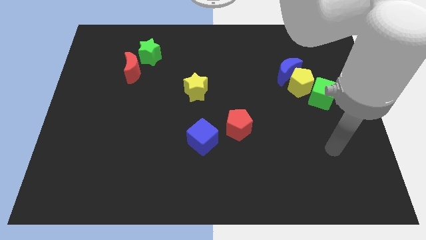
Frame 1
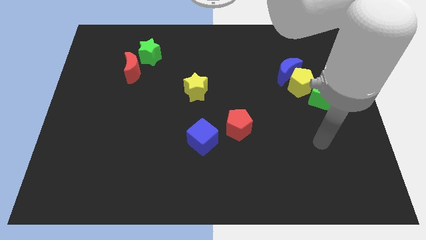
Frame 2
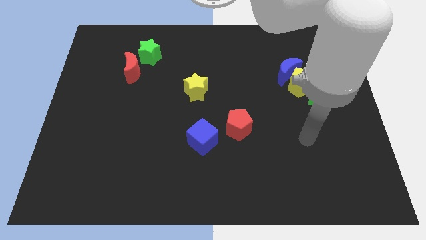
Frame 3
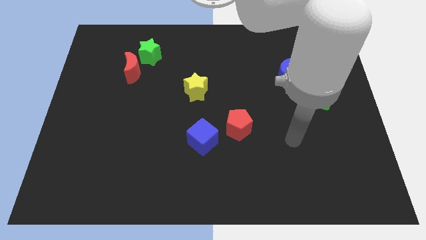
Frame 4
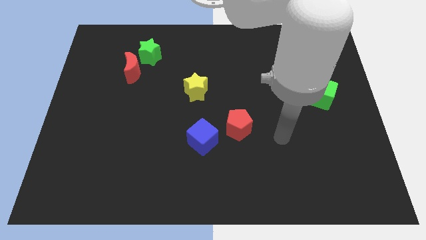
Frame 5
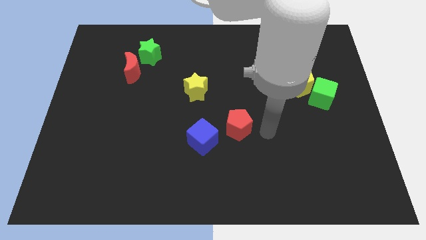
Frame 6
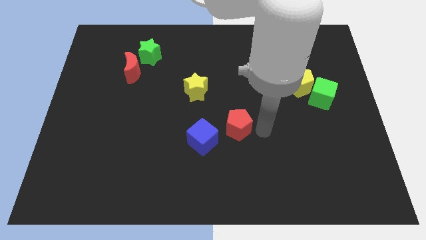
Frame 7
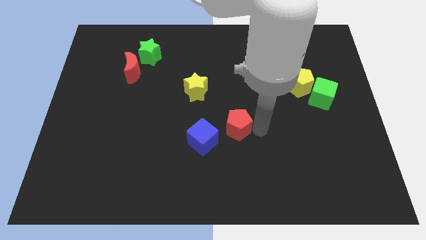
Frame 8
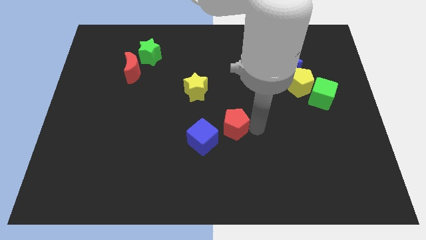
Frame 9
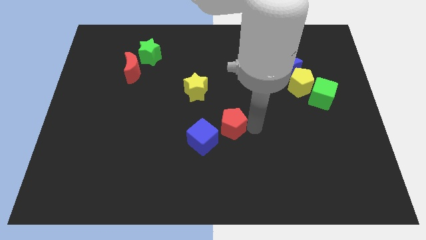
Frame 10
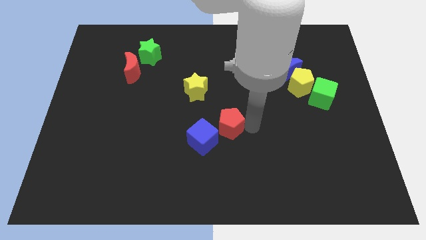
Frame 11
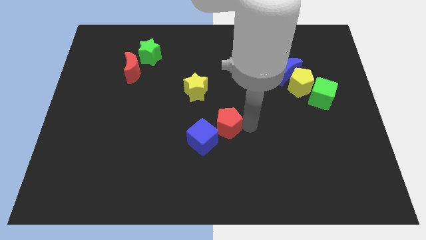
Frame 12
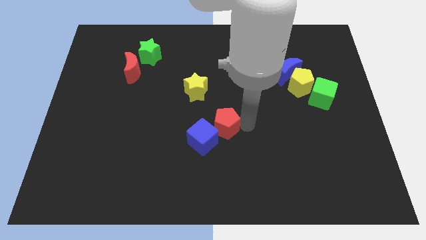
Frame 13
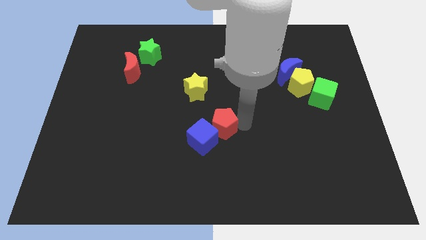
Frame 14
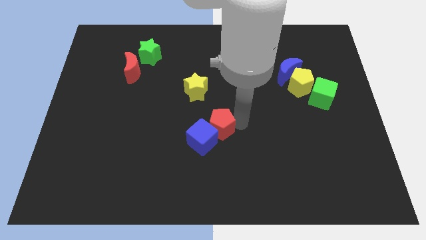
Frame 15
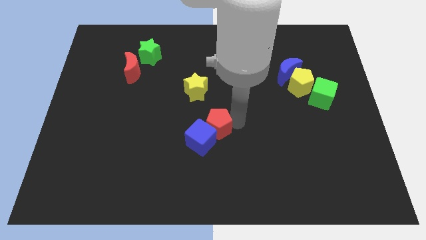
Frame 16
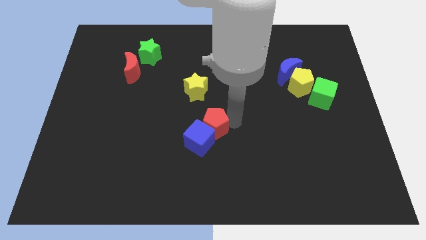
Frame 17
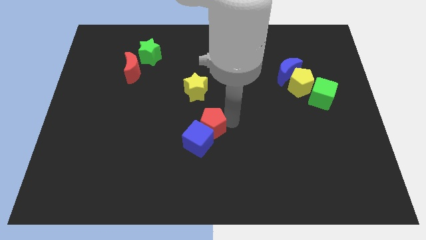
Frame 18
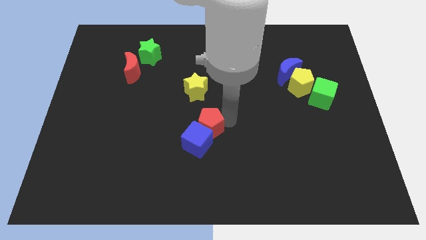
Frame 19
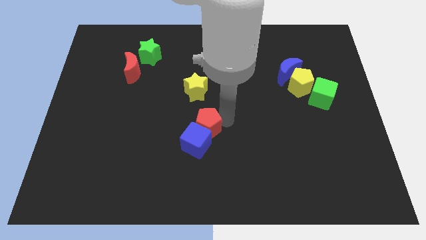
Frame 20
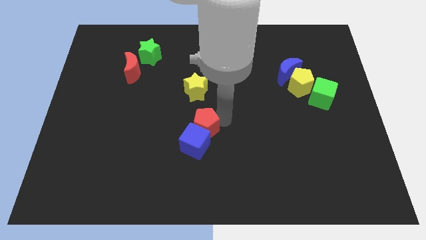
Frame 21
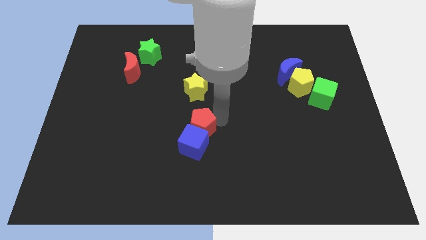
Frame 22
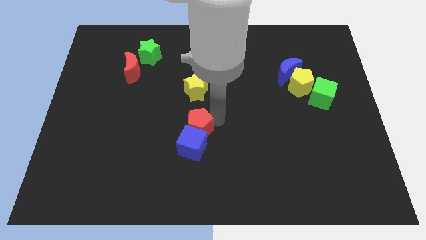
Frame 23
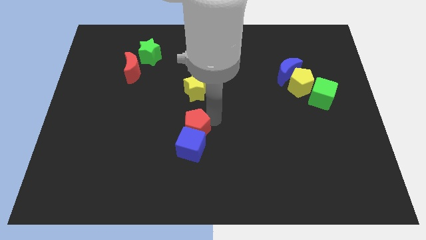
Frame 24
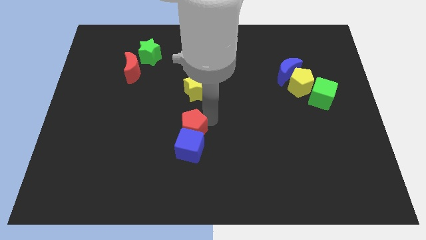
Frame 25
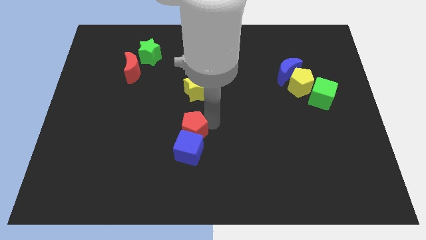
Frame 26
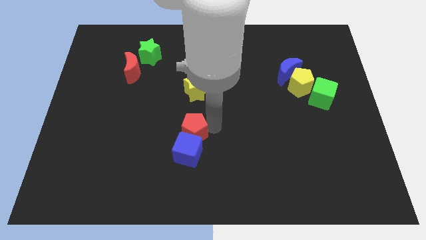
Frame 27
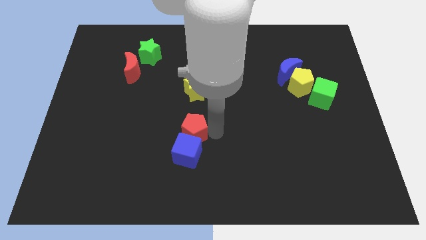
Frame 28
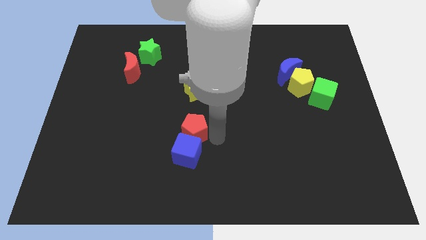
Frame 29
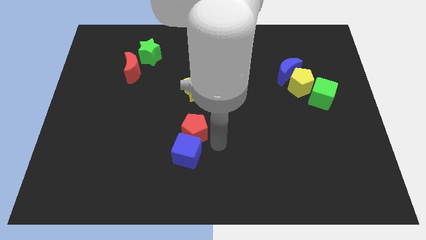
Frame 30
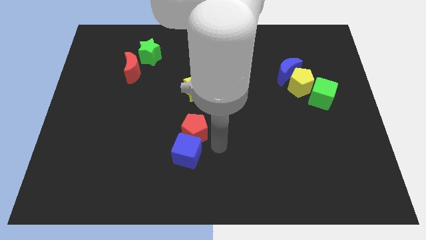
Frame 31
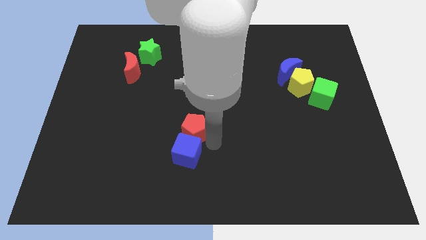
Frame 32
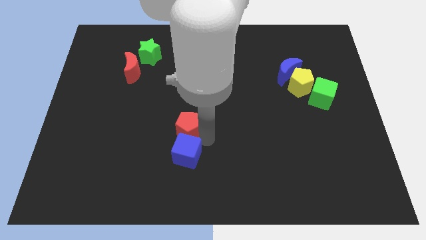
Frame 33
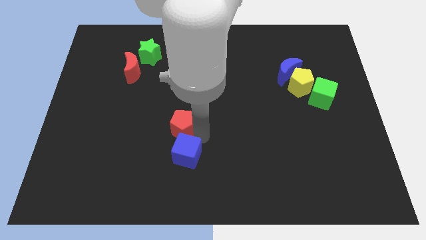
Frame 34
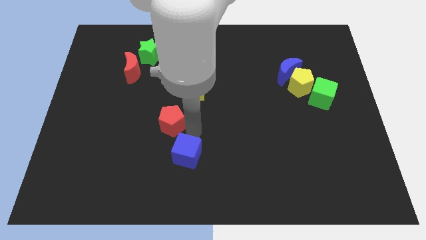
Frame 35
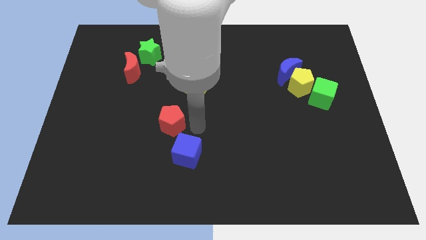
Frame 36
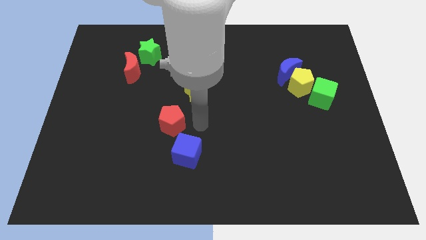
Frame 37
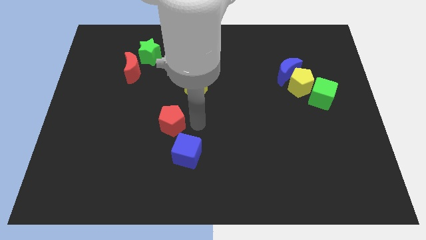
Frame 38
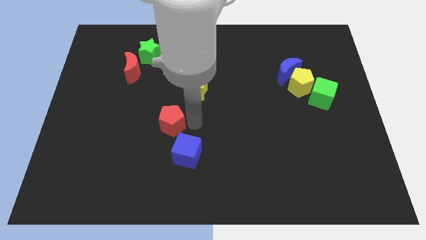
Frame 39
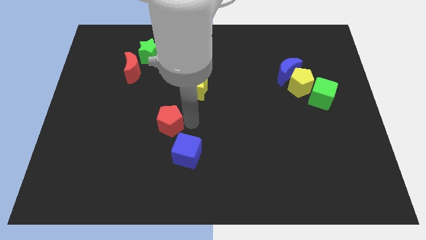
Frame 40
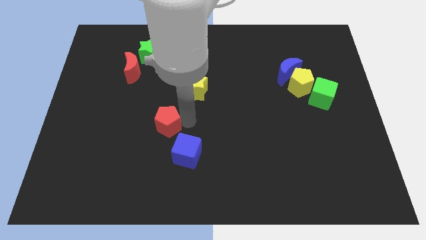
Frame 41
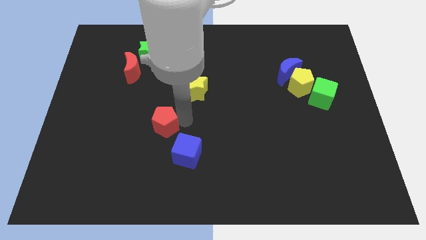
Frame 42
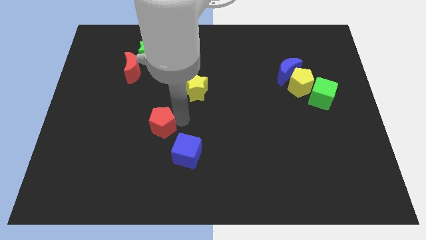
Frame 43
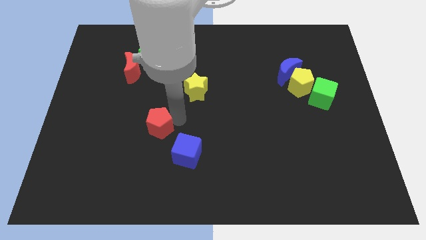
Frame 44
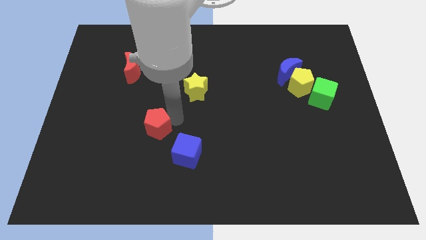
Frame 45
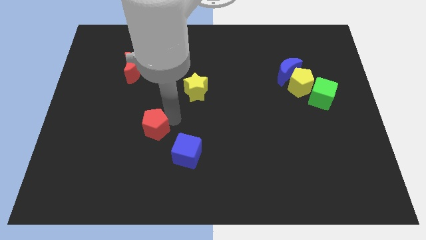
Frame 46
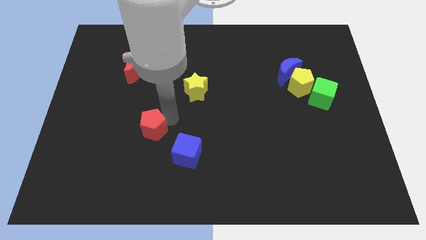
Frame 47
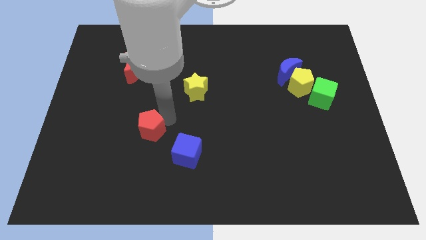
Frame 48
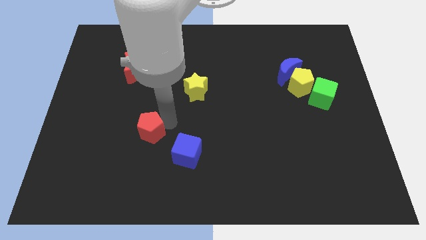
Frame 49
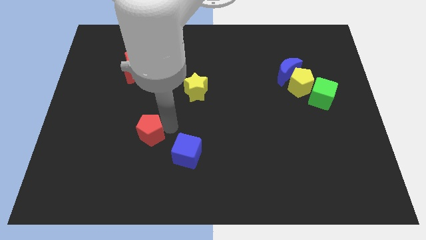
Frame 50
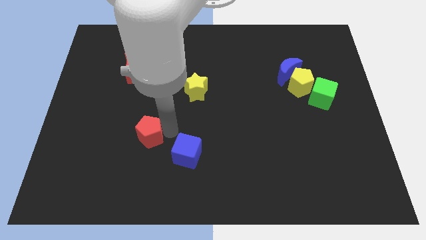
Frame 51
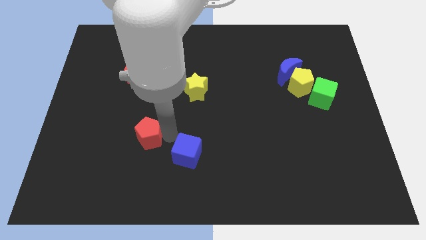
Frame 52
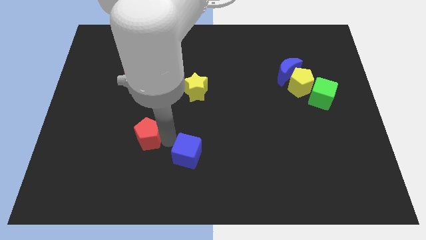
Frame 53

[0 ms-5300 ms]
move the red pentagon to the left

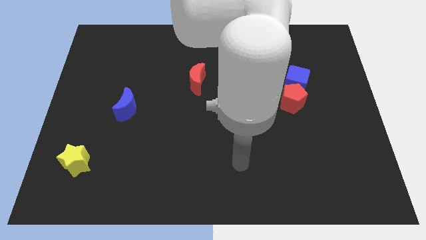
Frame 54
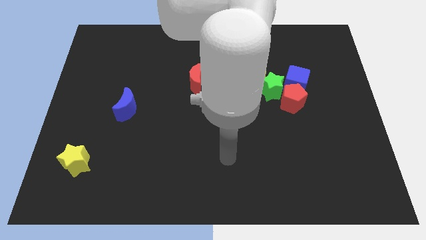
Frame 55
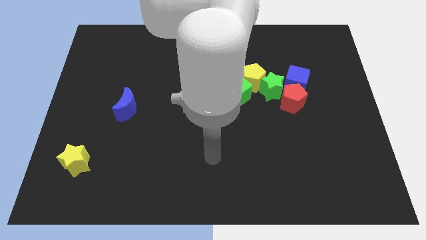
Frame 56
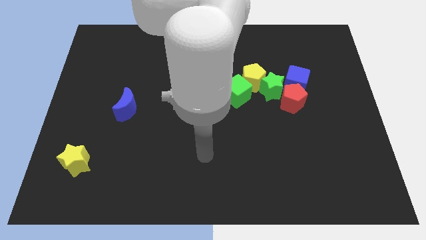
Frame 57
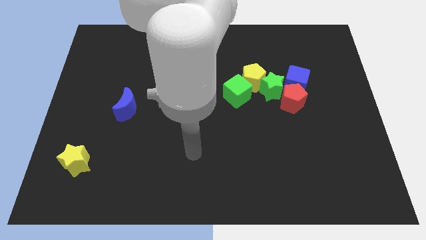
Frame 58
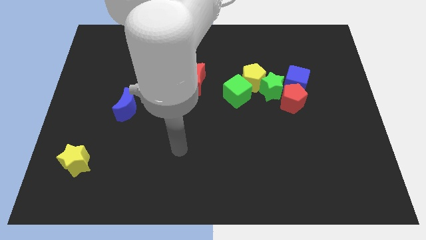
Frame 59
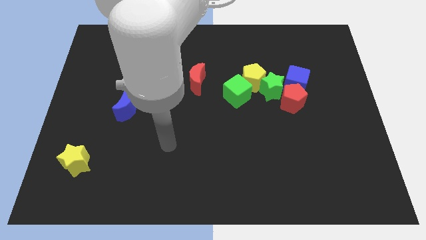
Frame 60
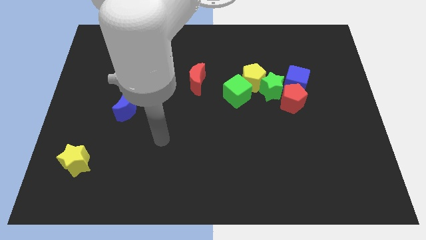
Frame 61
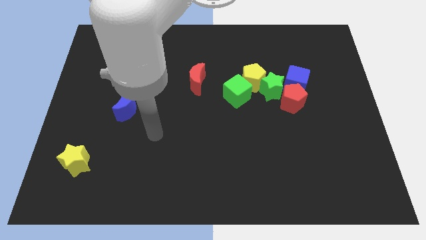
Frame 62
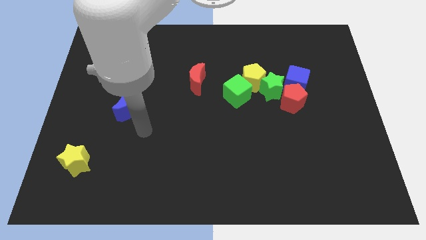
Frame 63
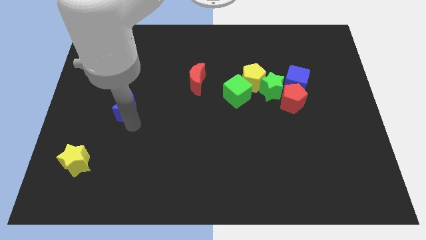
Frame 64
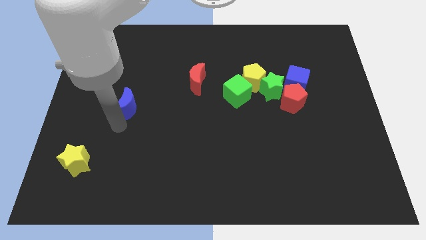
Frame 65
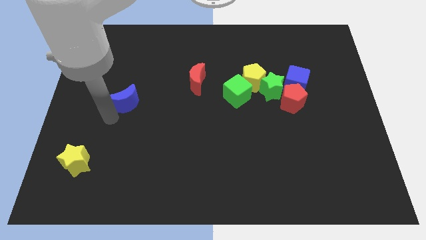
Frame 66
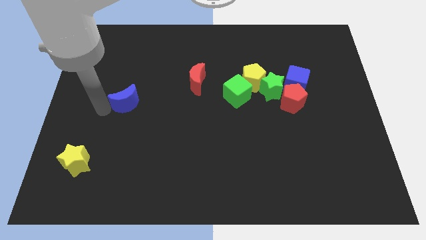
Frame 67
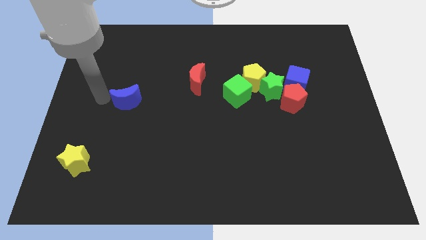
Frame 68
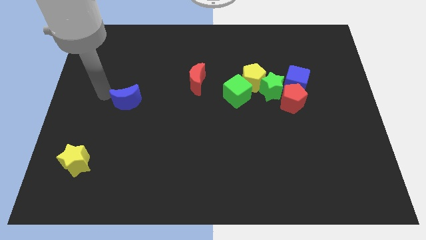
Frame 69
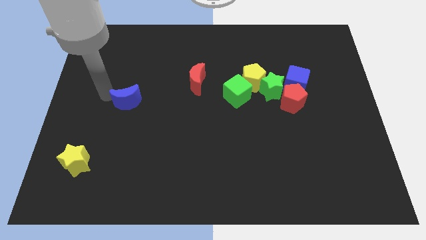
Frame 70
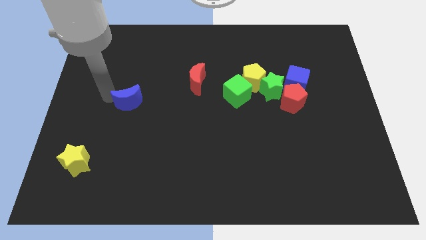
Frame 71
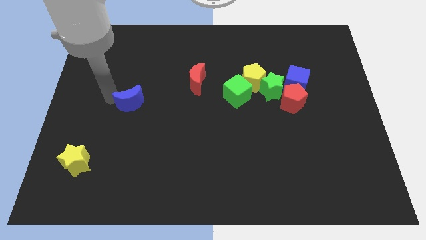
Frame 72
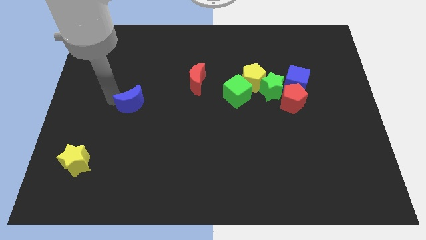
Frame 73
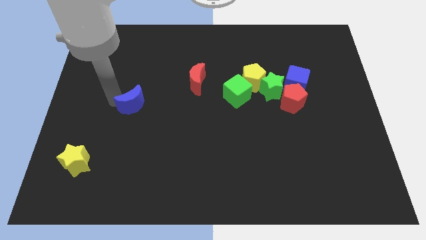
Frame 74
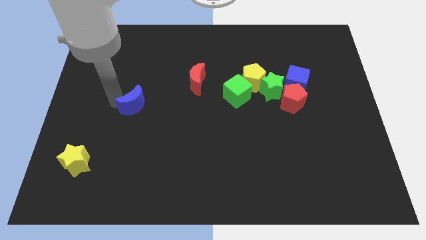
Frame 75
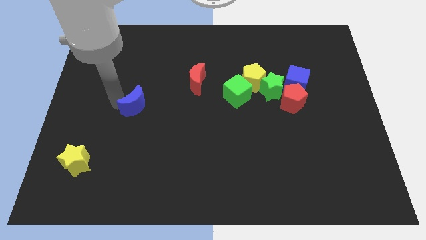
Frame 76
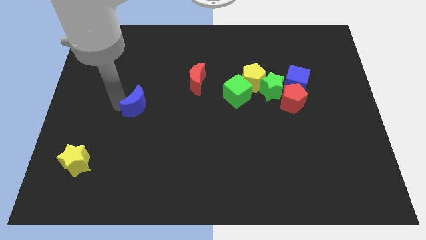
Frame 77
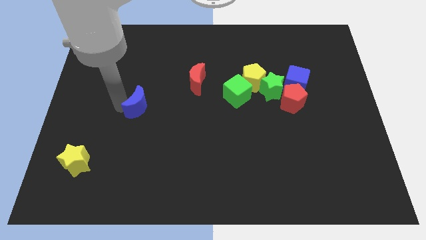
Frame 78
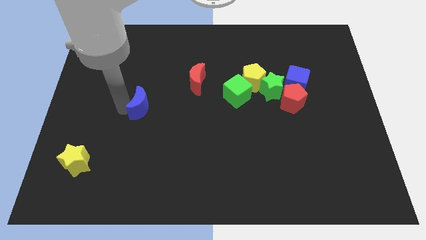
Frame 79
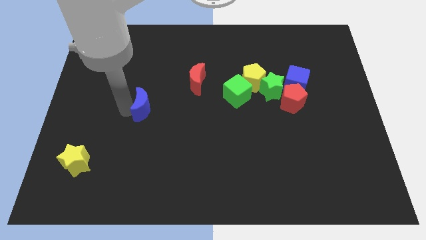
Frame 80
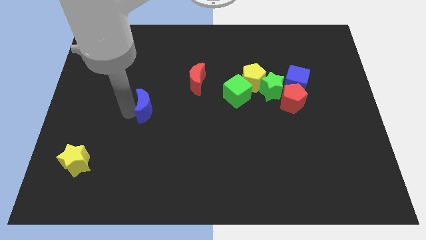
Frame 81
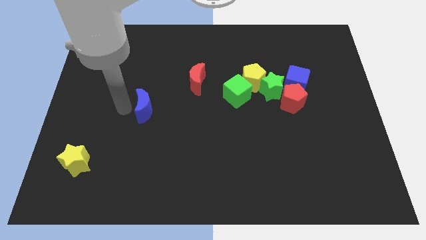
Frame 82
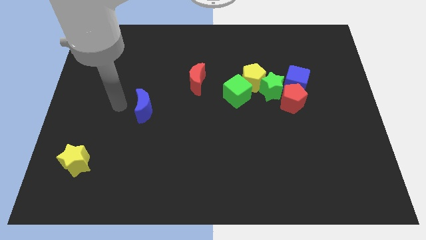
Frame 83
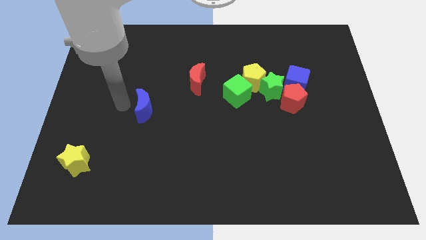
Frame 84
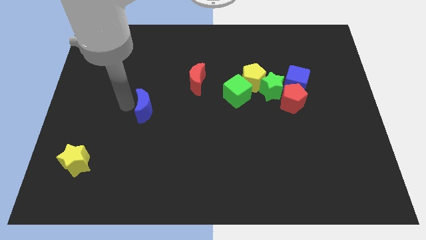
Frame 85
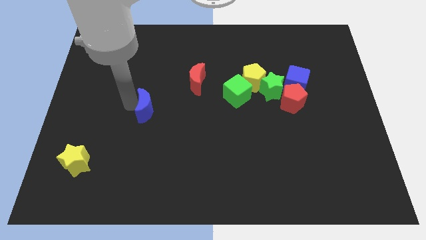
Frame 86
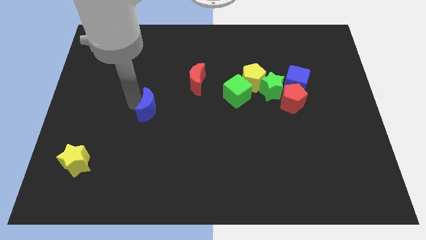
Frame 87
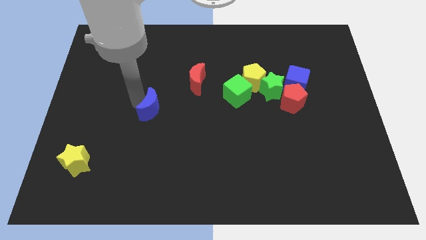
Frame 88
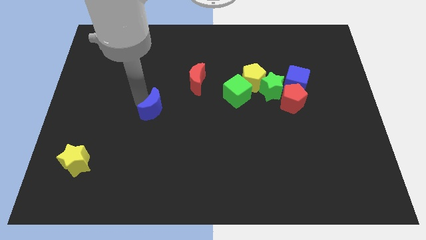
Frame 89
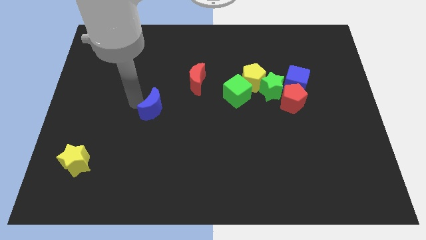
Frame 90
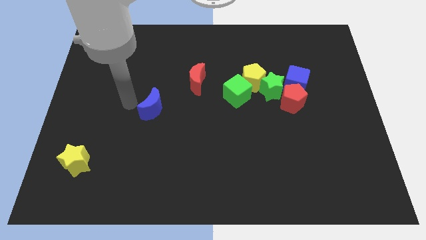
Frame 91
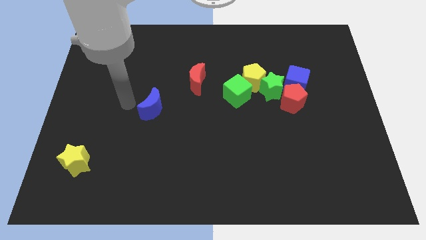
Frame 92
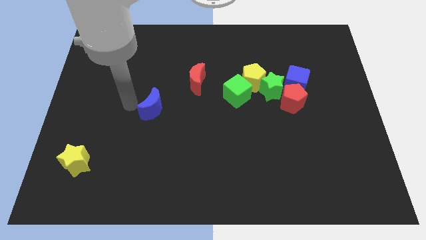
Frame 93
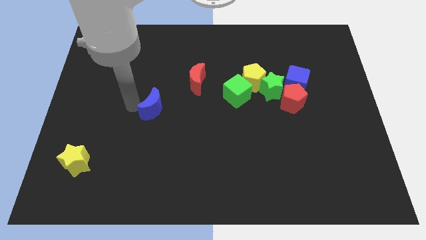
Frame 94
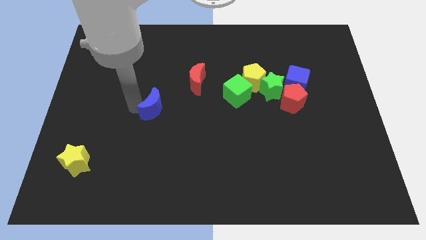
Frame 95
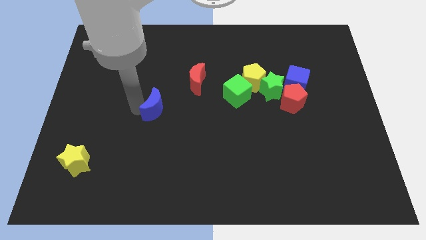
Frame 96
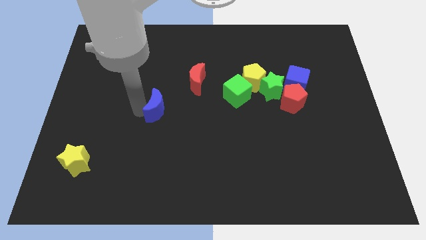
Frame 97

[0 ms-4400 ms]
slide the blue moon a little to the right
